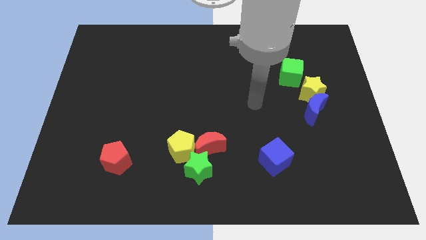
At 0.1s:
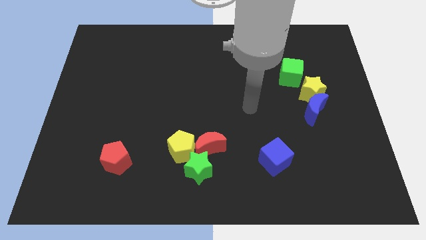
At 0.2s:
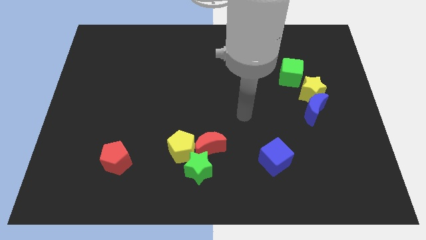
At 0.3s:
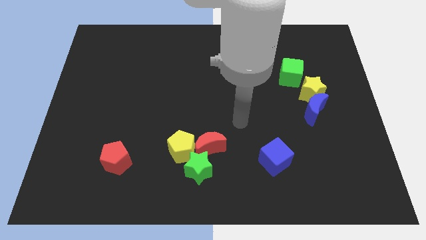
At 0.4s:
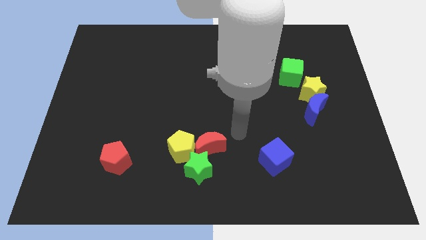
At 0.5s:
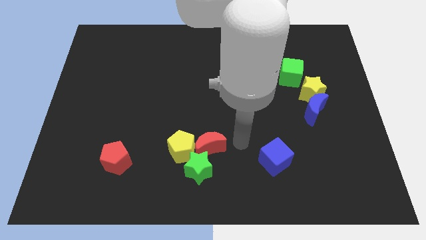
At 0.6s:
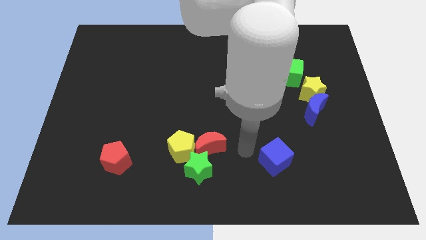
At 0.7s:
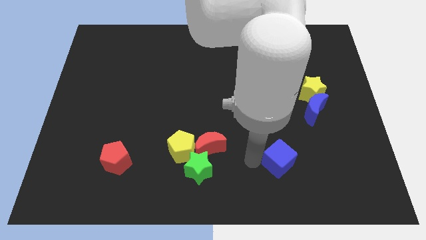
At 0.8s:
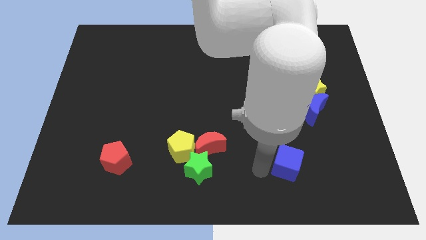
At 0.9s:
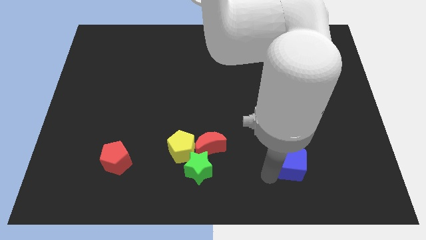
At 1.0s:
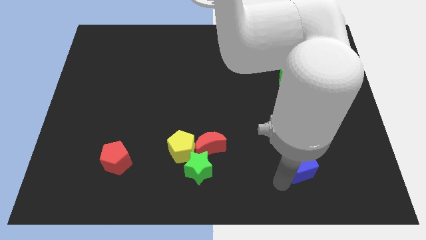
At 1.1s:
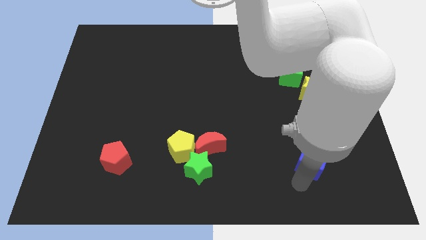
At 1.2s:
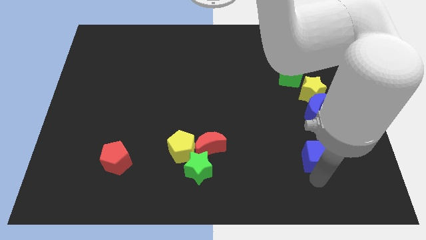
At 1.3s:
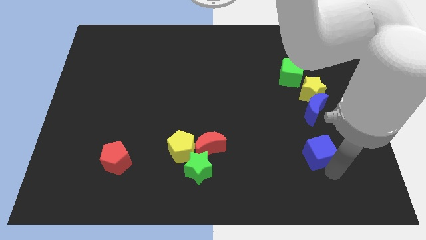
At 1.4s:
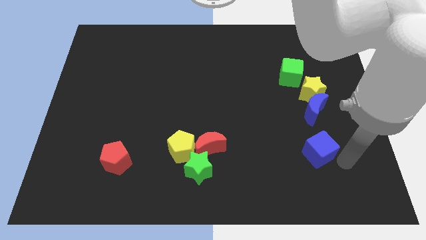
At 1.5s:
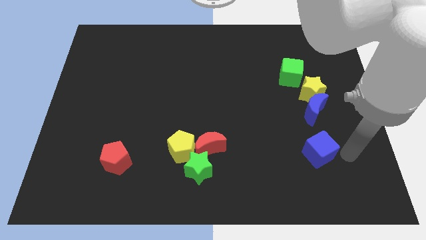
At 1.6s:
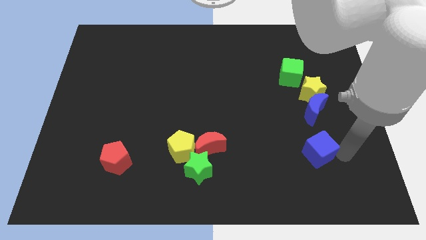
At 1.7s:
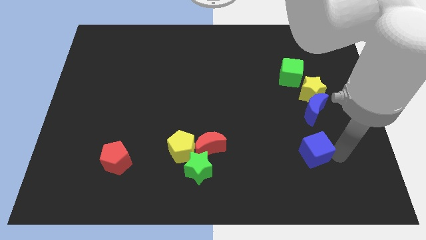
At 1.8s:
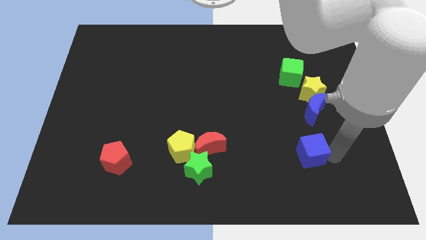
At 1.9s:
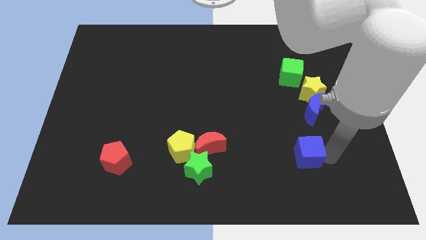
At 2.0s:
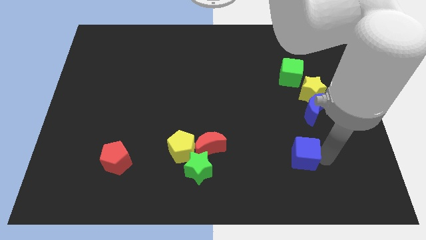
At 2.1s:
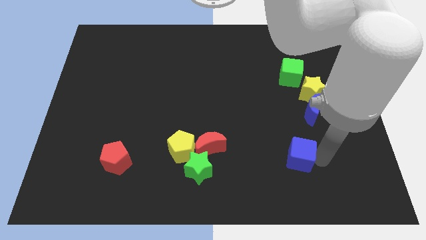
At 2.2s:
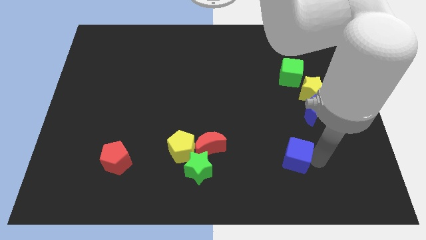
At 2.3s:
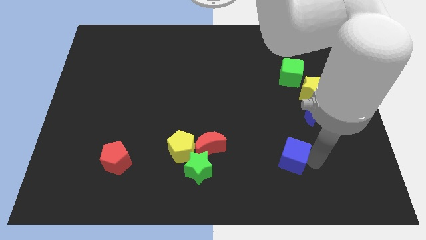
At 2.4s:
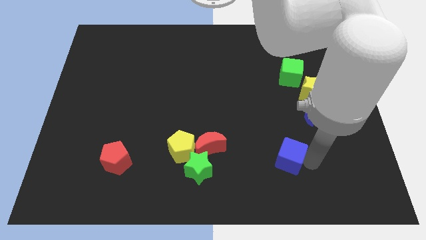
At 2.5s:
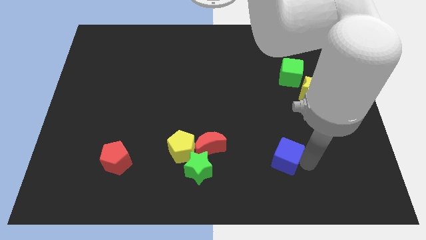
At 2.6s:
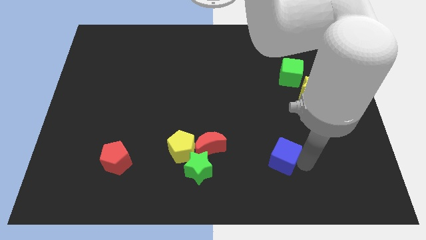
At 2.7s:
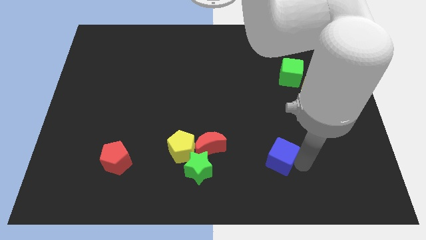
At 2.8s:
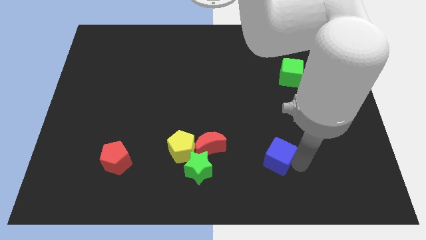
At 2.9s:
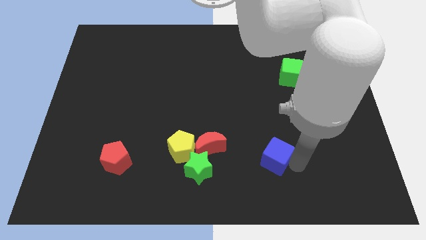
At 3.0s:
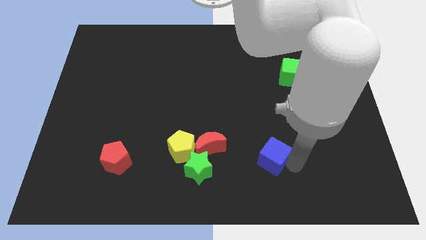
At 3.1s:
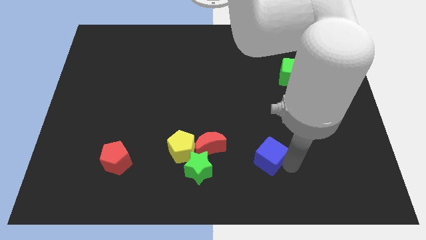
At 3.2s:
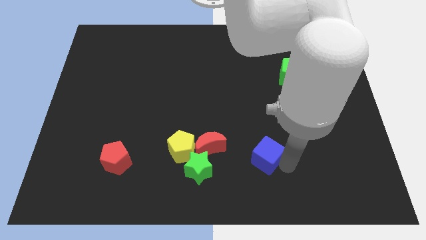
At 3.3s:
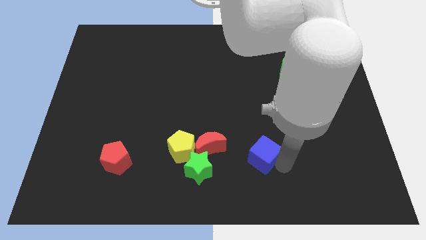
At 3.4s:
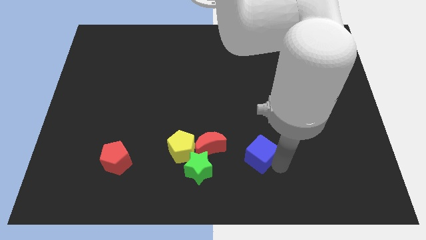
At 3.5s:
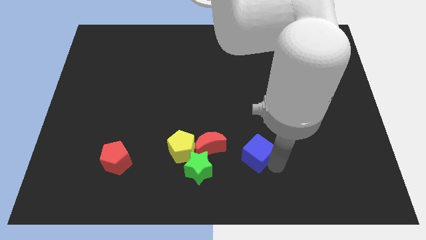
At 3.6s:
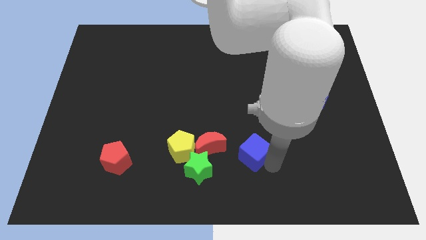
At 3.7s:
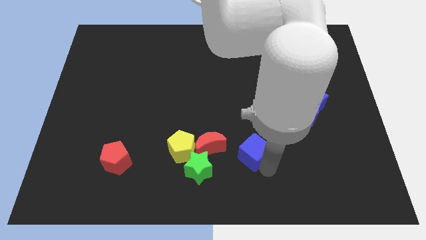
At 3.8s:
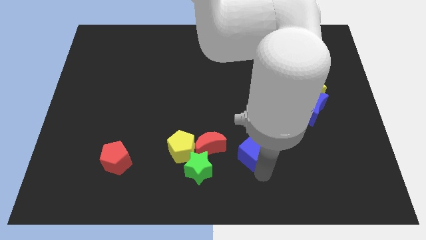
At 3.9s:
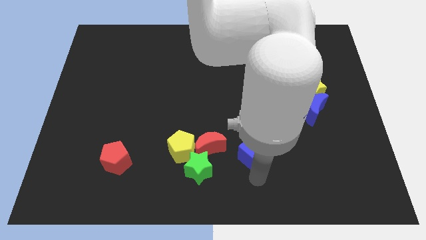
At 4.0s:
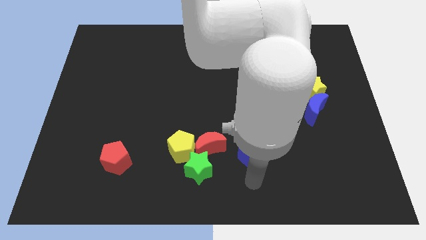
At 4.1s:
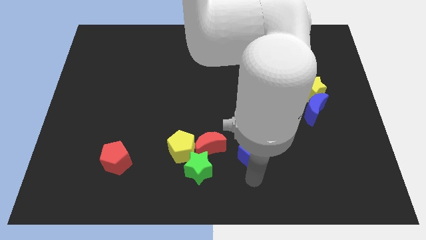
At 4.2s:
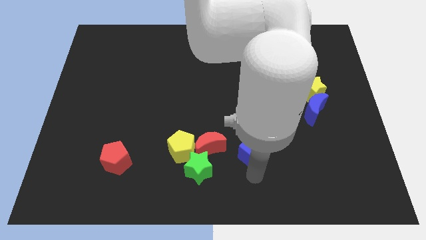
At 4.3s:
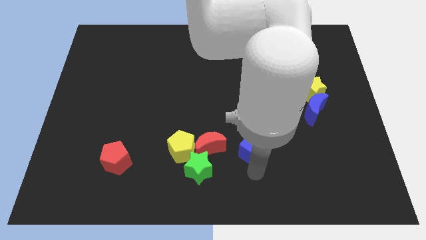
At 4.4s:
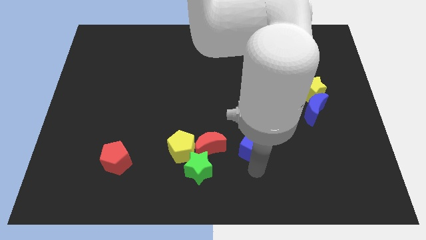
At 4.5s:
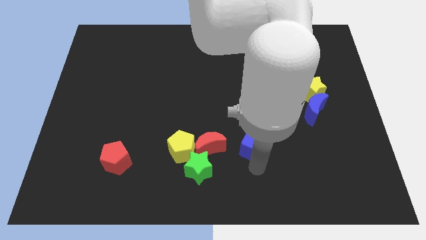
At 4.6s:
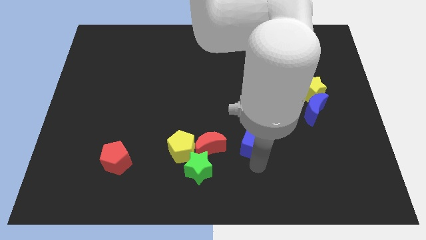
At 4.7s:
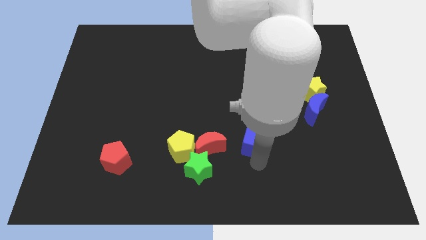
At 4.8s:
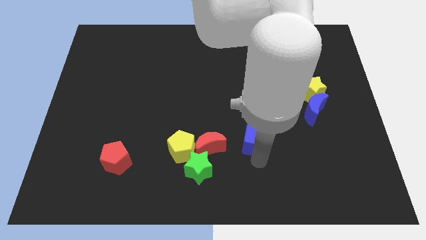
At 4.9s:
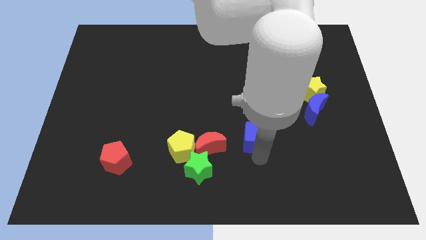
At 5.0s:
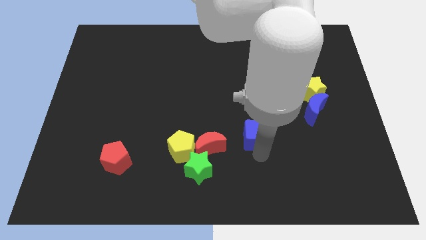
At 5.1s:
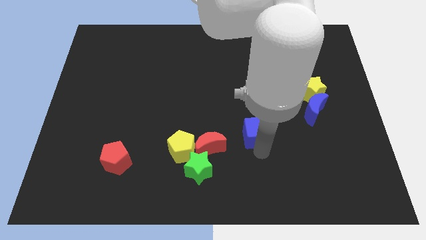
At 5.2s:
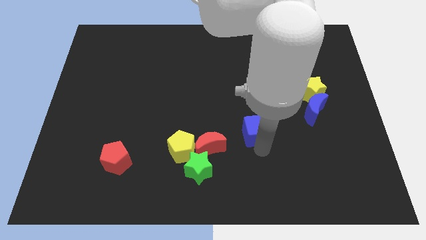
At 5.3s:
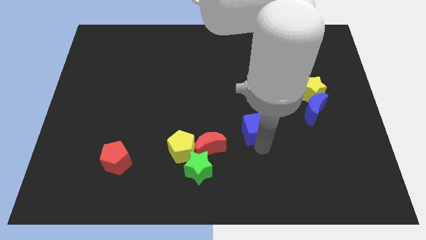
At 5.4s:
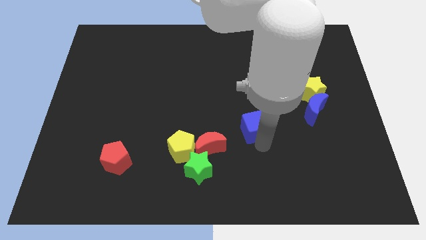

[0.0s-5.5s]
put the blue cube to the center

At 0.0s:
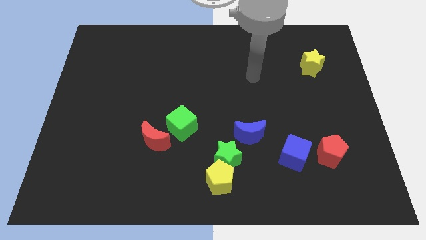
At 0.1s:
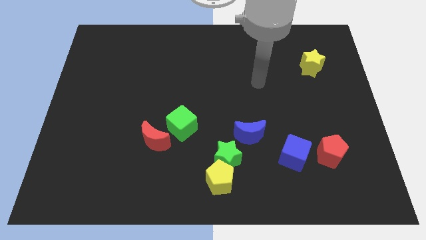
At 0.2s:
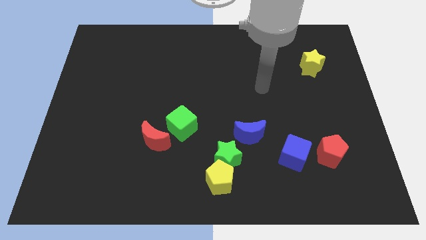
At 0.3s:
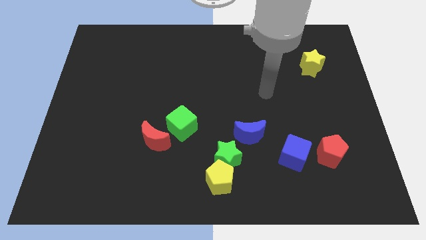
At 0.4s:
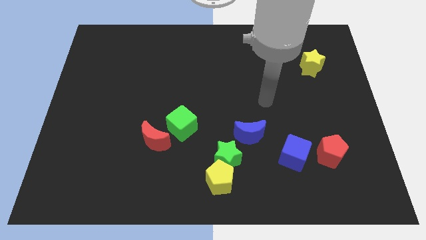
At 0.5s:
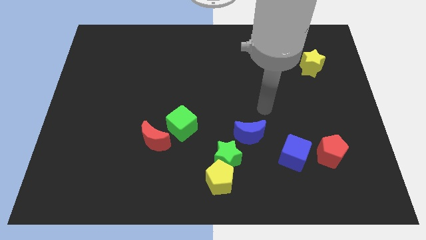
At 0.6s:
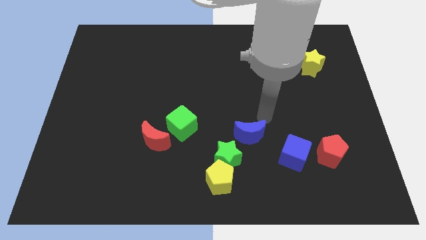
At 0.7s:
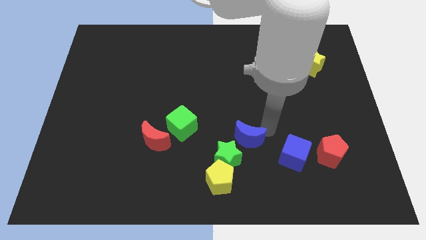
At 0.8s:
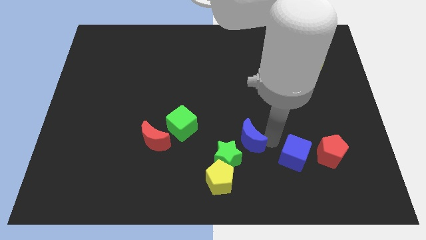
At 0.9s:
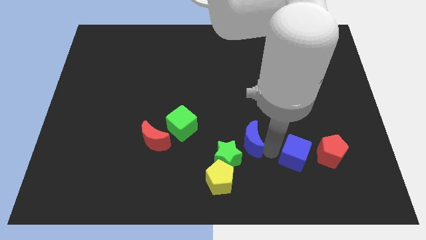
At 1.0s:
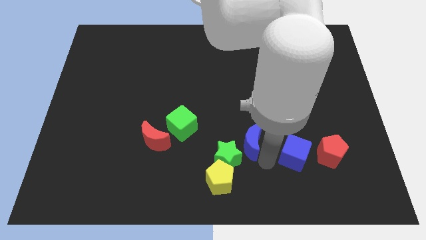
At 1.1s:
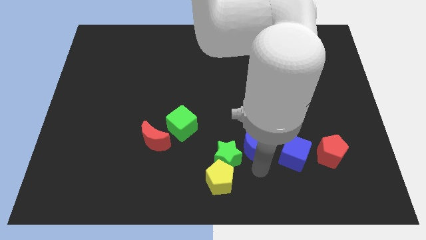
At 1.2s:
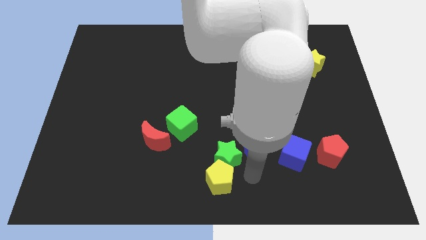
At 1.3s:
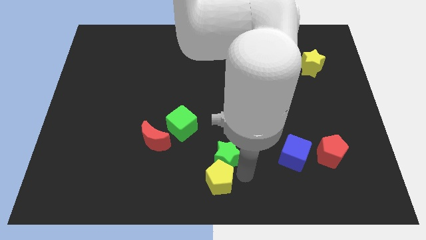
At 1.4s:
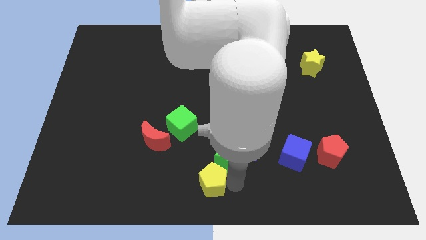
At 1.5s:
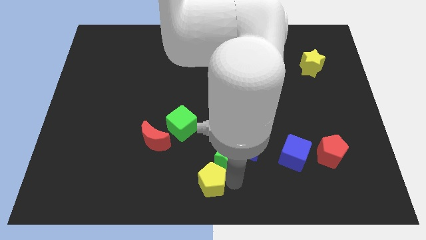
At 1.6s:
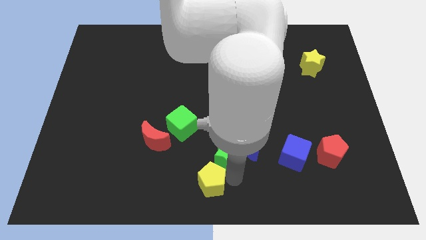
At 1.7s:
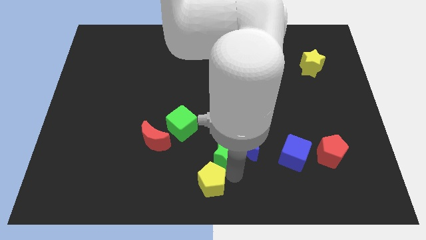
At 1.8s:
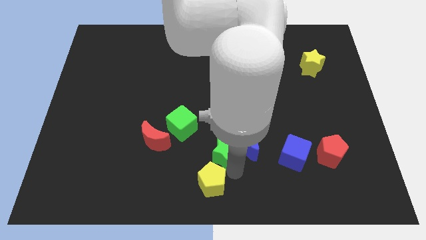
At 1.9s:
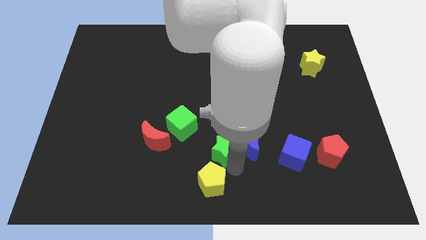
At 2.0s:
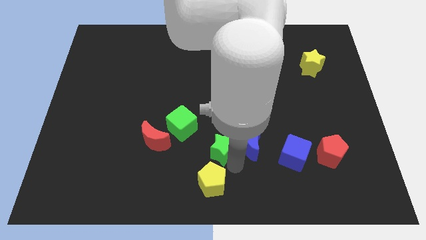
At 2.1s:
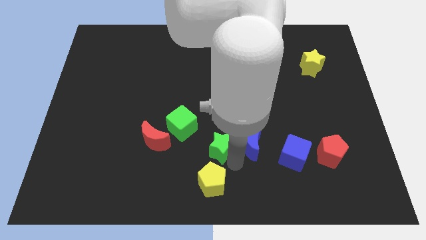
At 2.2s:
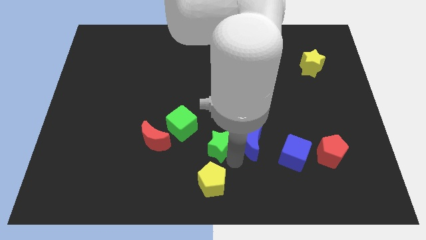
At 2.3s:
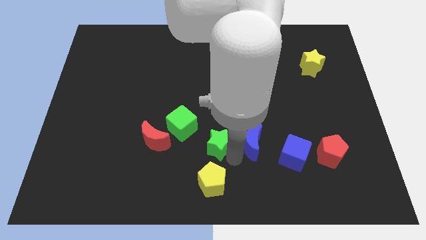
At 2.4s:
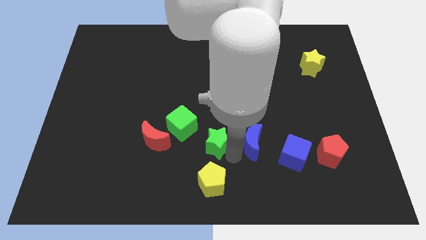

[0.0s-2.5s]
slide the green star to the center
